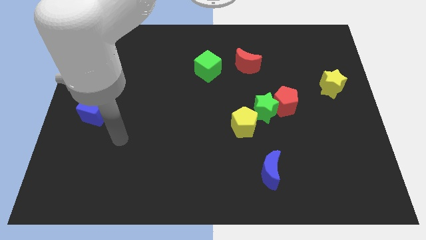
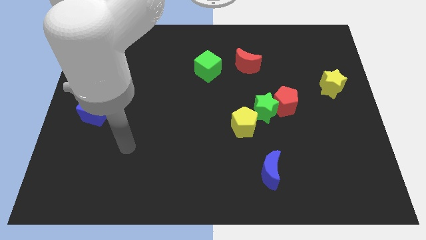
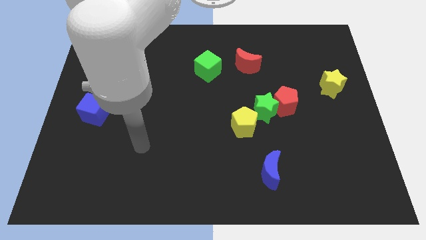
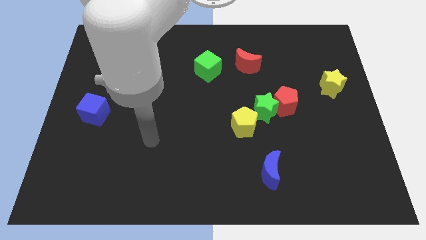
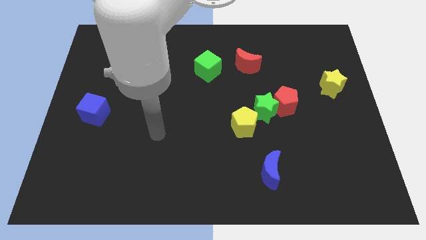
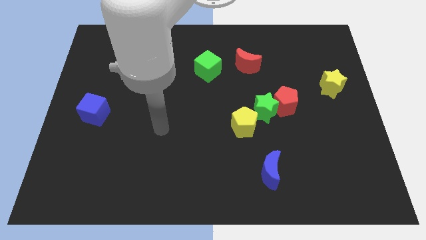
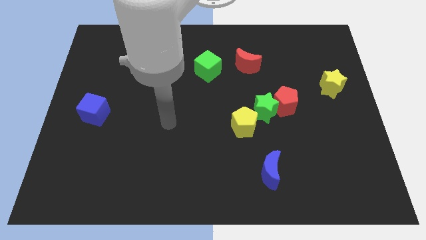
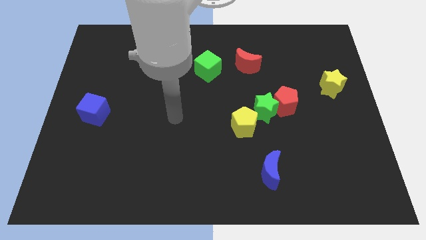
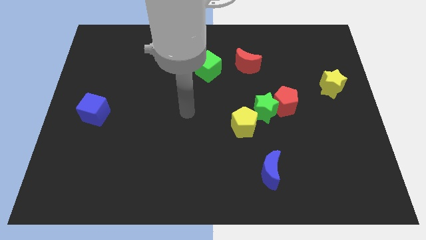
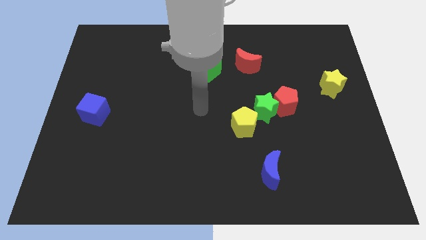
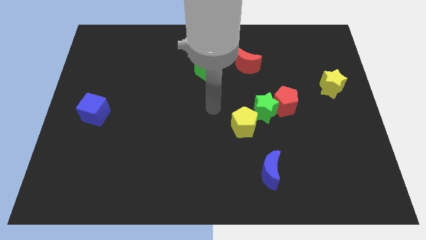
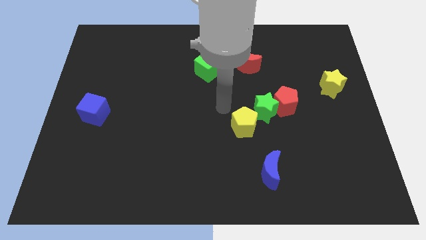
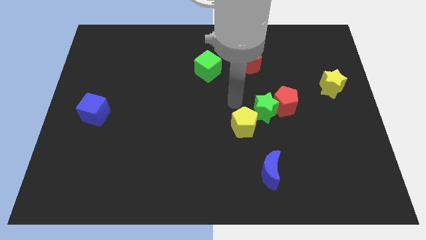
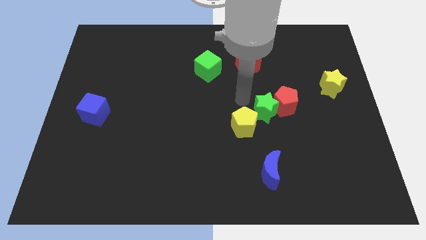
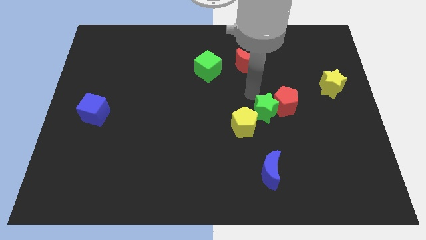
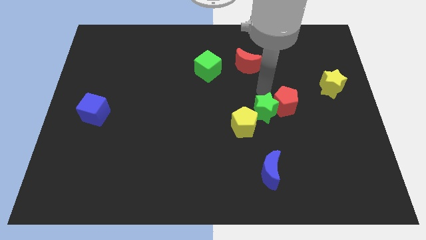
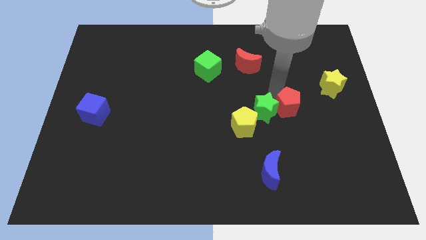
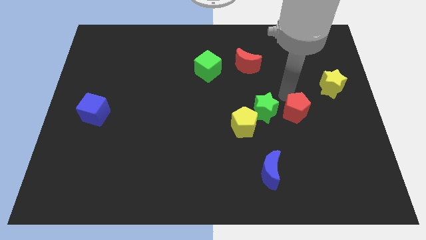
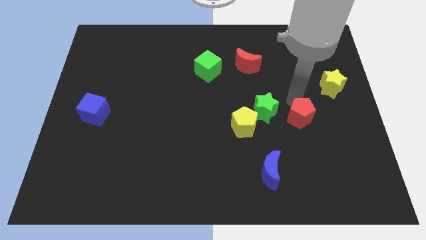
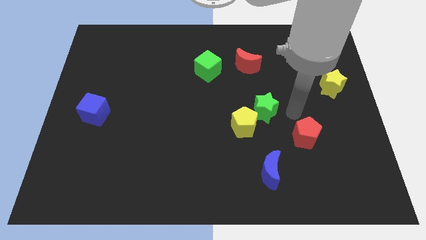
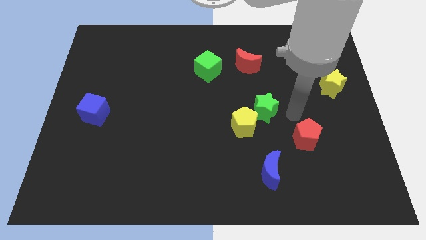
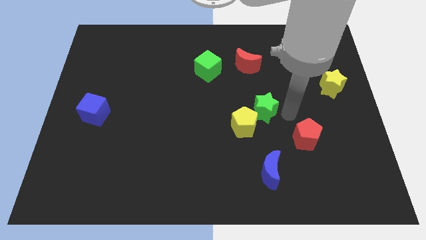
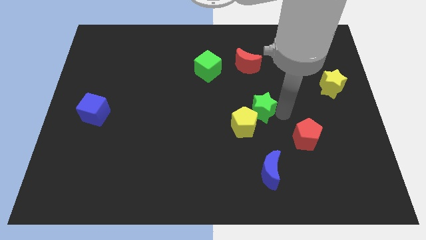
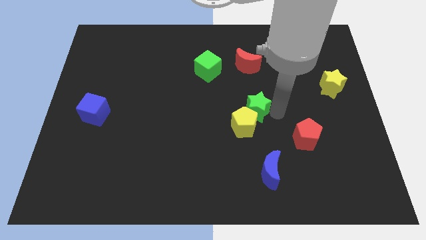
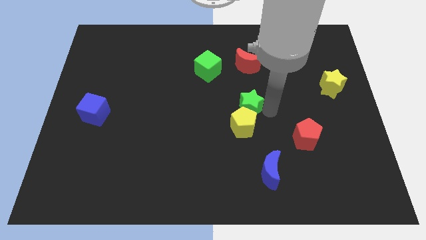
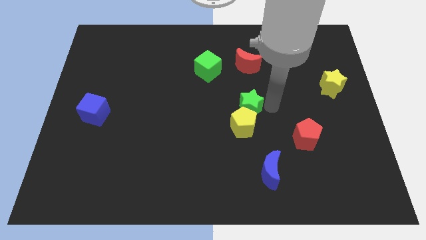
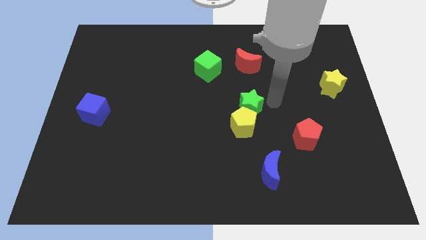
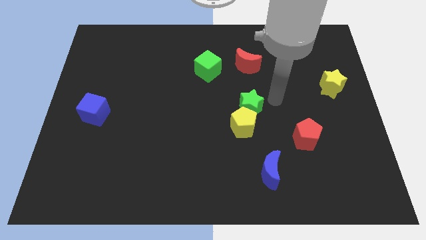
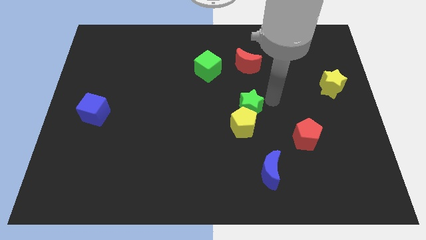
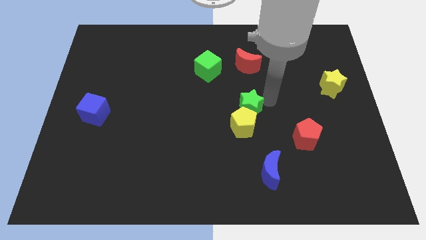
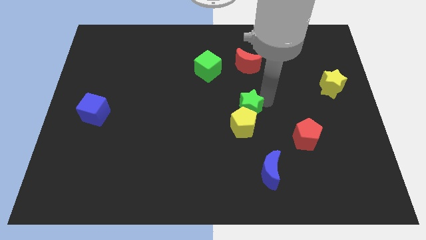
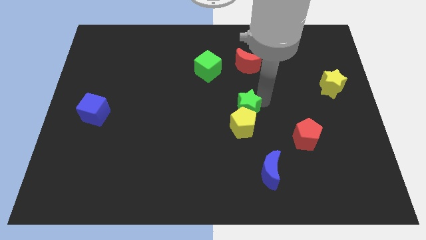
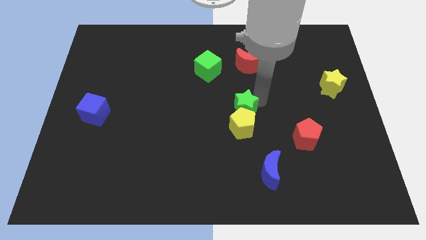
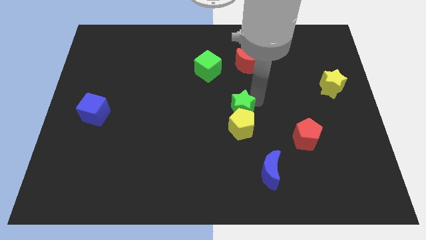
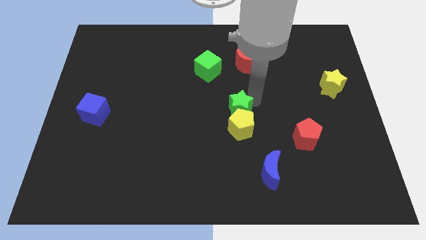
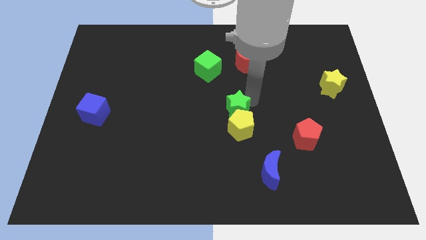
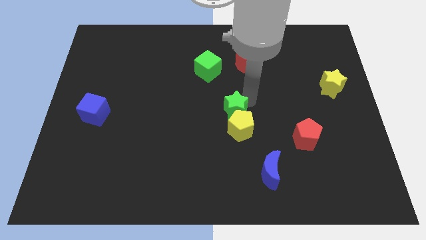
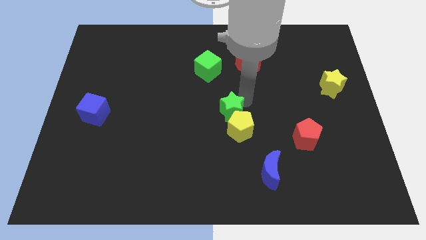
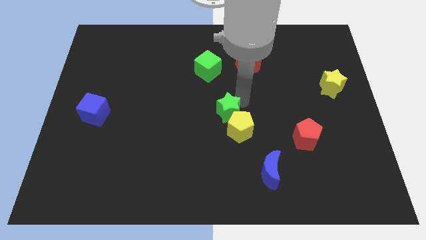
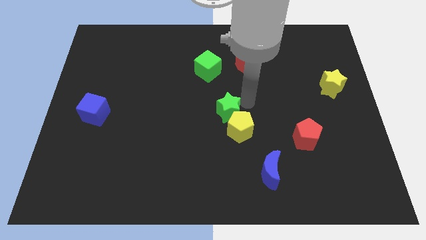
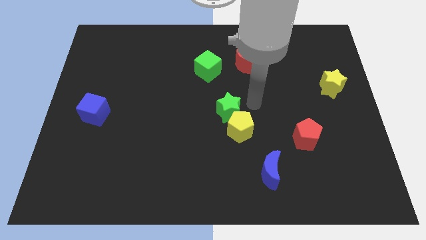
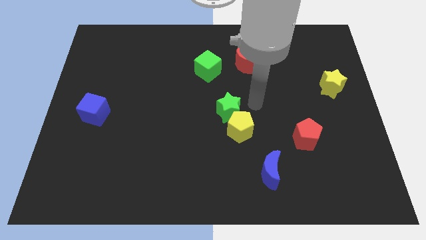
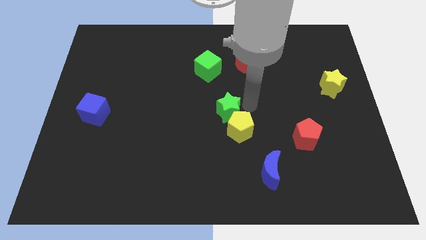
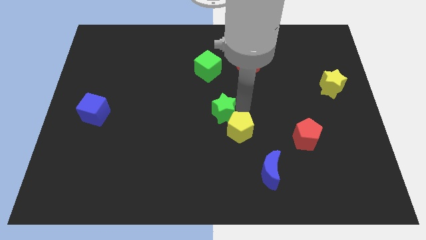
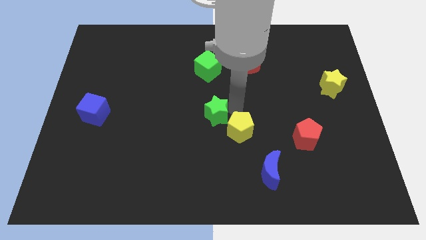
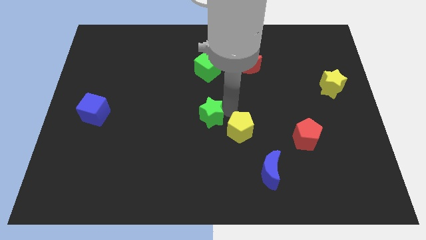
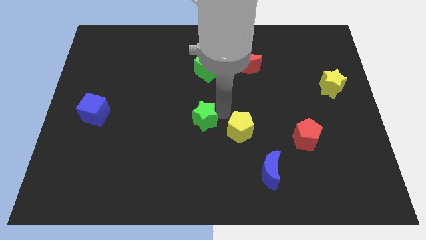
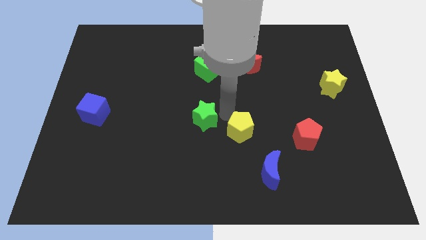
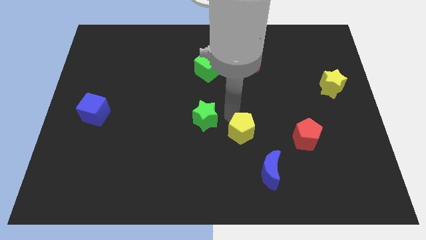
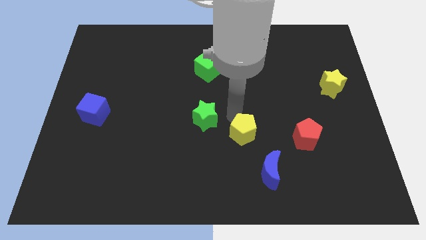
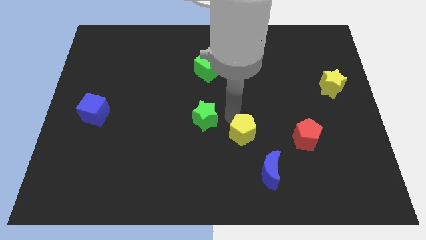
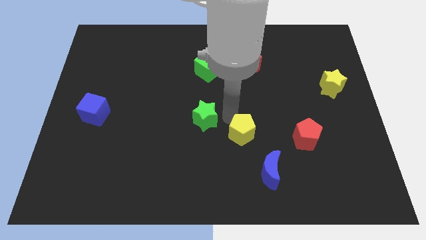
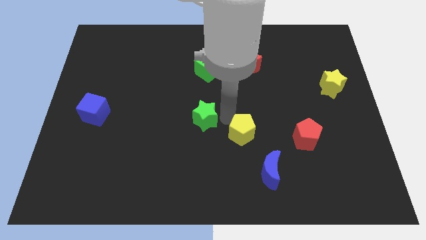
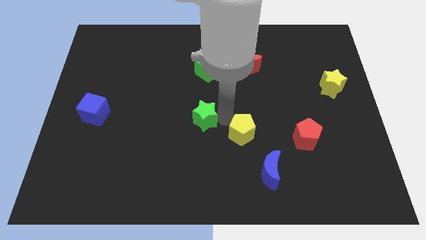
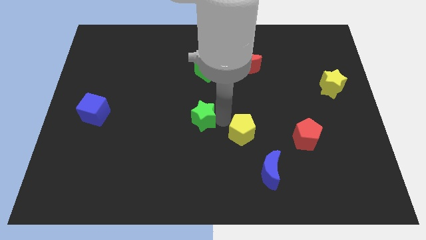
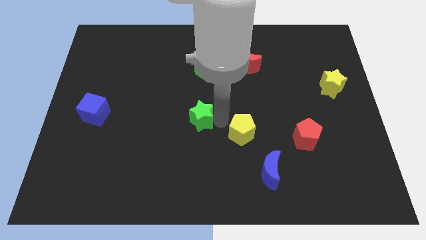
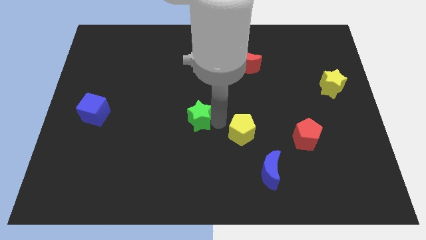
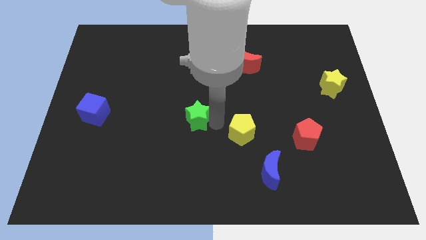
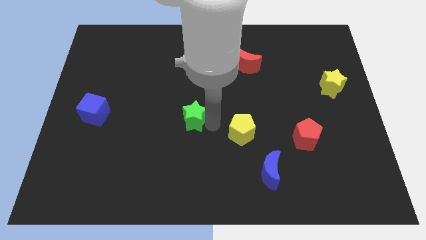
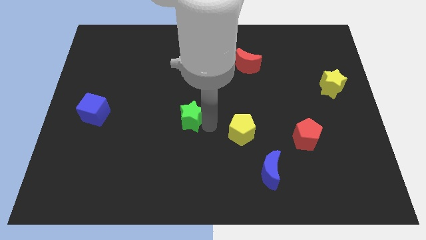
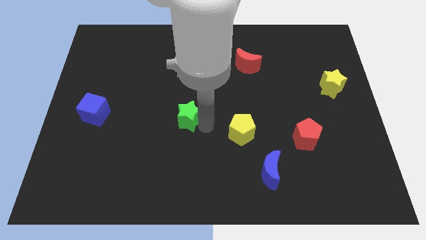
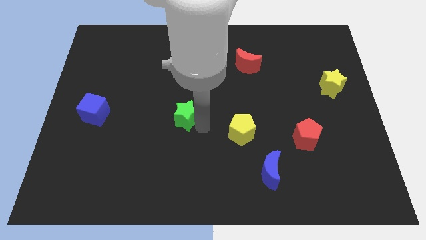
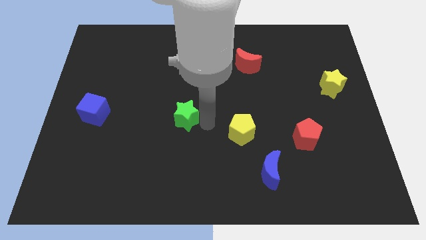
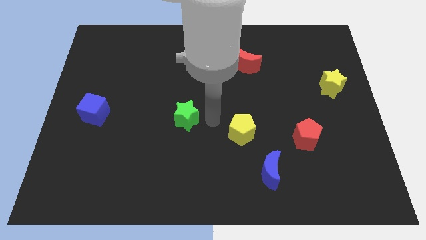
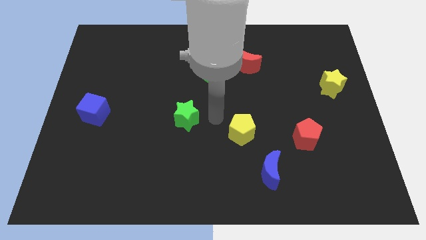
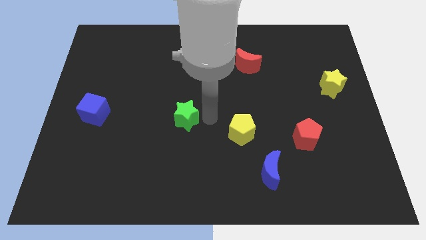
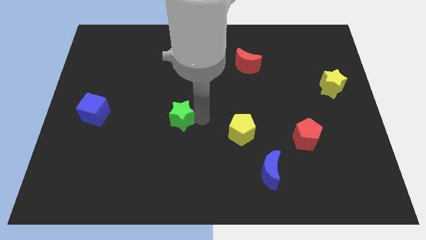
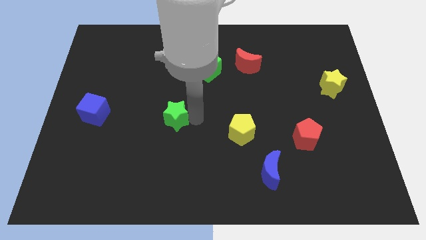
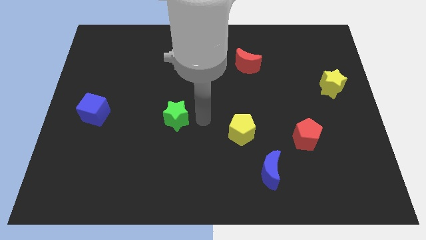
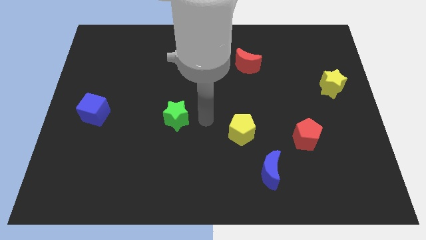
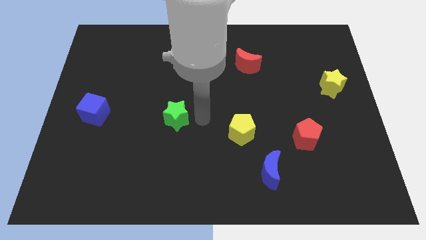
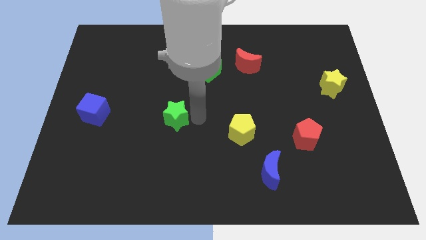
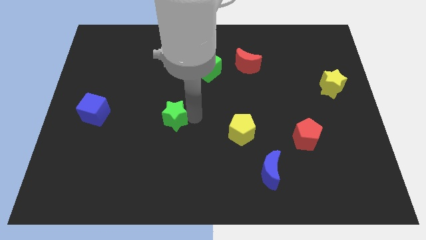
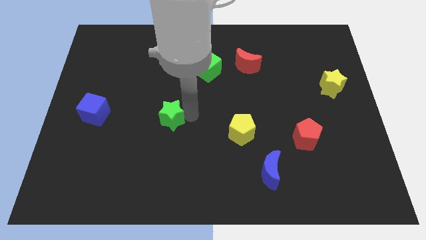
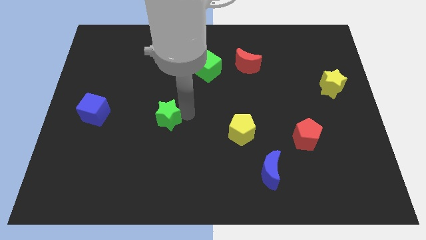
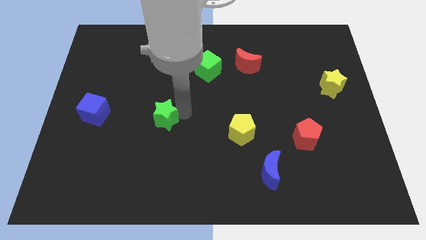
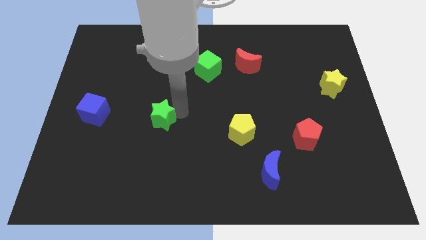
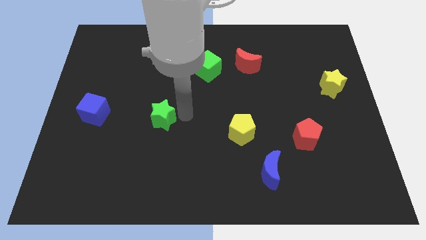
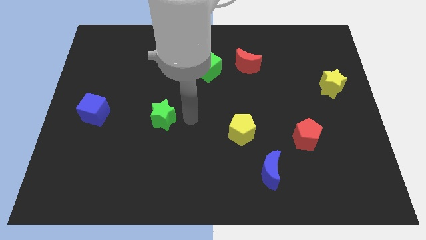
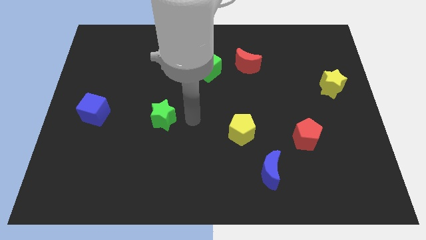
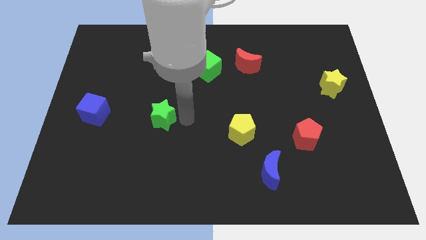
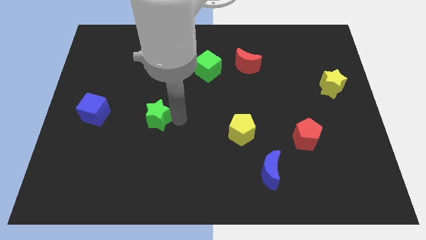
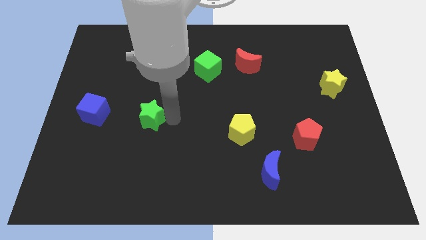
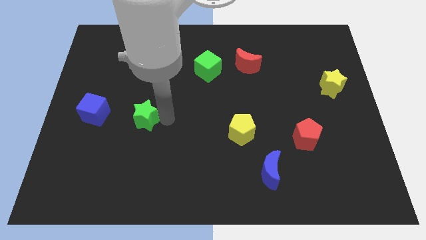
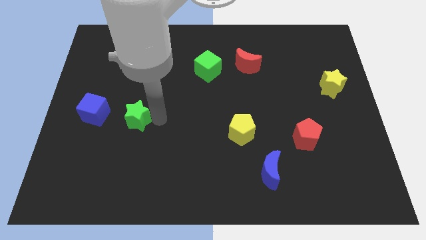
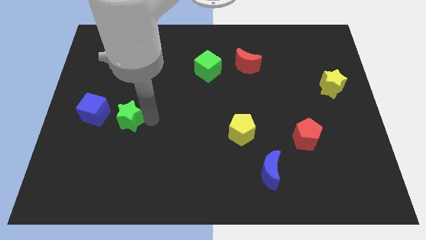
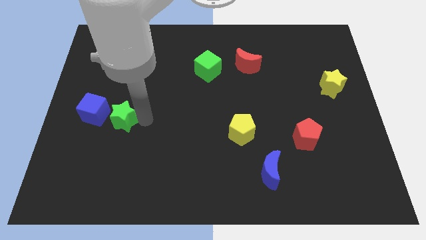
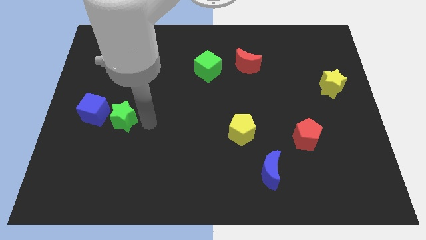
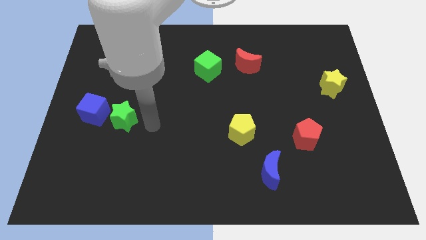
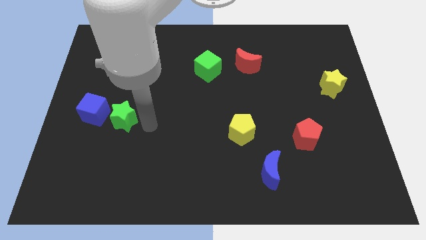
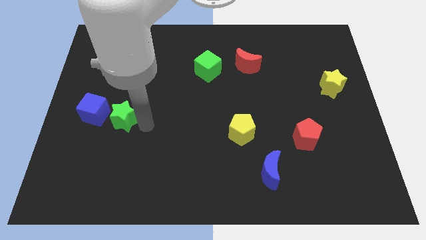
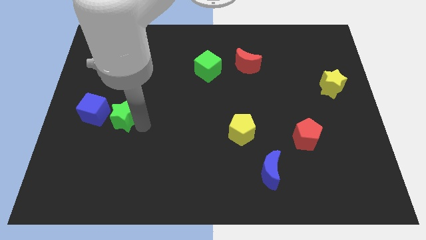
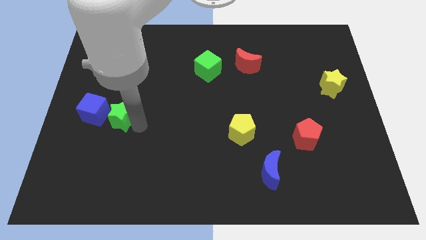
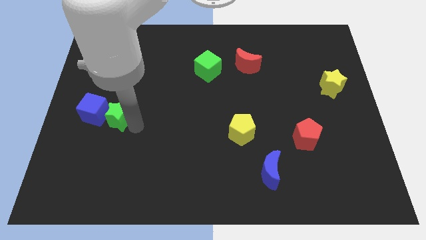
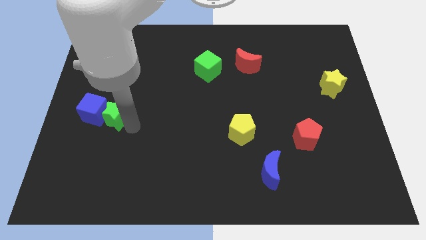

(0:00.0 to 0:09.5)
put the green star close to the blue cube
